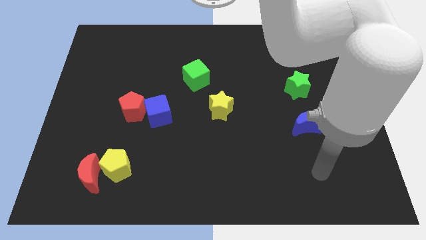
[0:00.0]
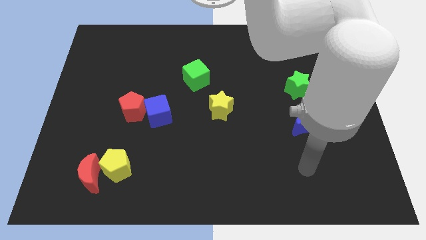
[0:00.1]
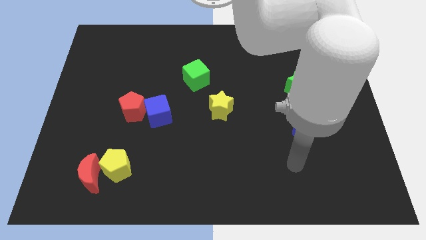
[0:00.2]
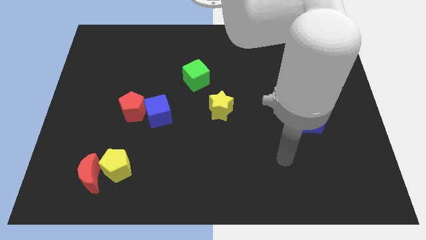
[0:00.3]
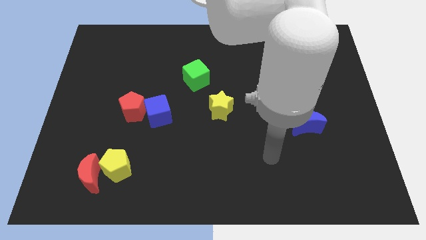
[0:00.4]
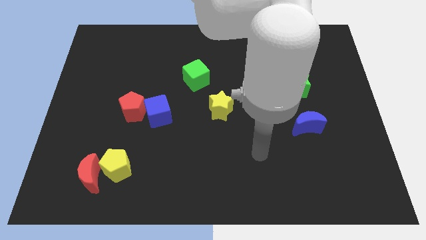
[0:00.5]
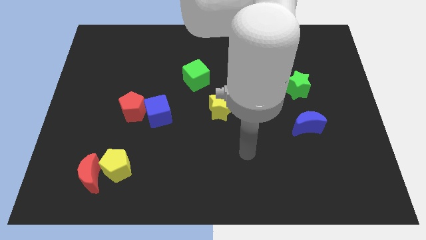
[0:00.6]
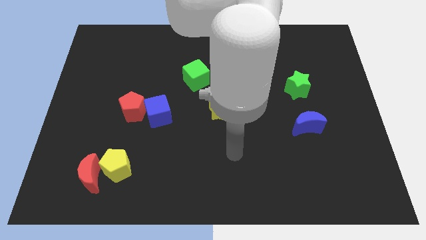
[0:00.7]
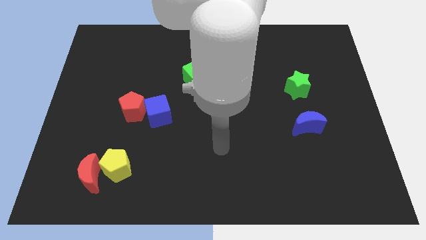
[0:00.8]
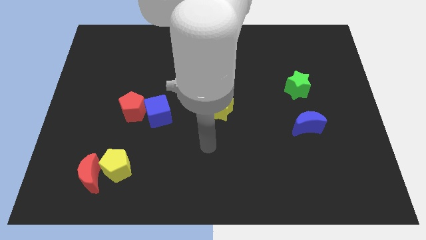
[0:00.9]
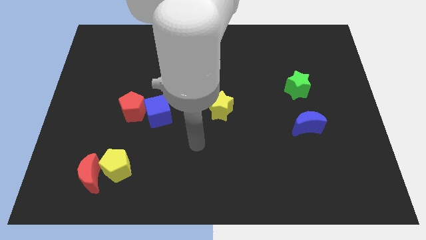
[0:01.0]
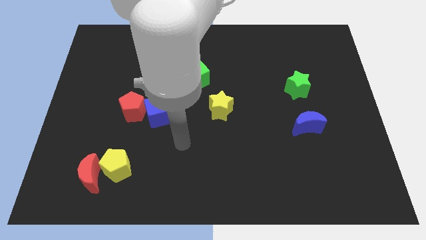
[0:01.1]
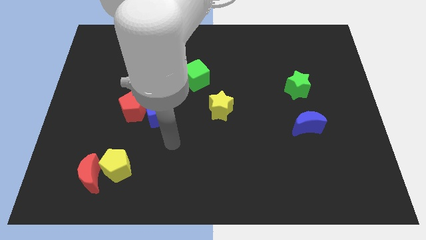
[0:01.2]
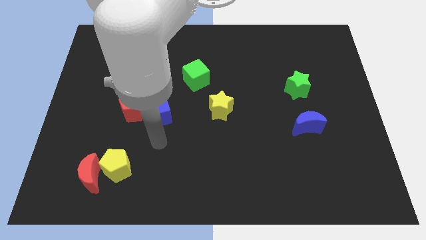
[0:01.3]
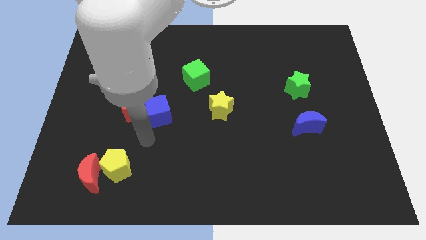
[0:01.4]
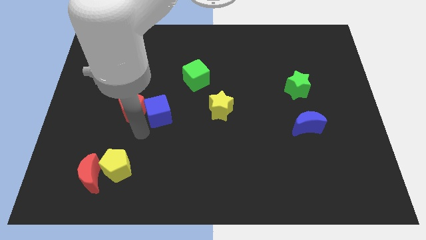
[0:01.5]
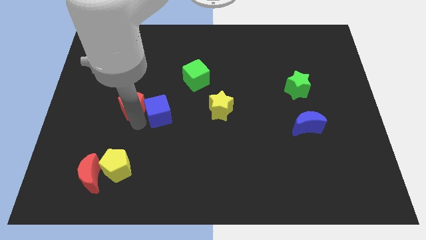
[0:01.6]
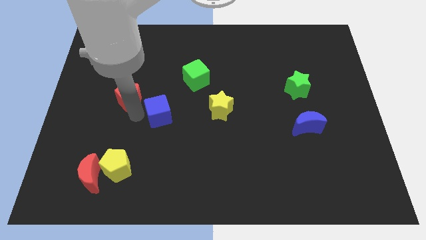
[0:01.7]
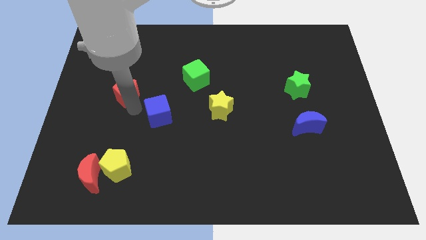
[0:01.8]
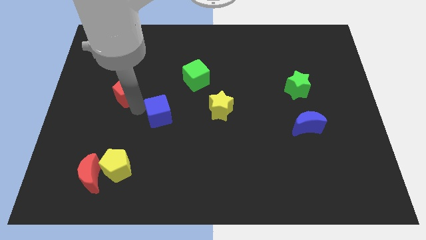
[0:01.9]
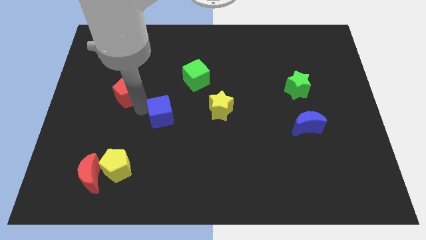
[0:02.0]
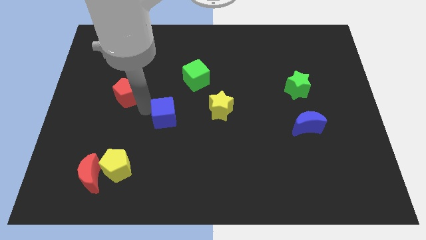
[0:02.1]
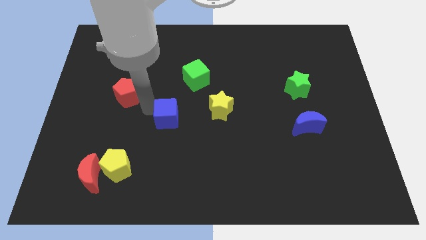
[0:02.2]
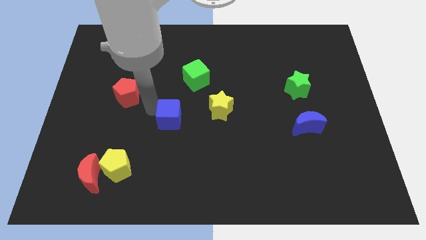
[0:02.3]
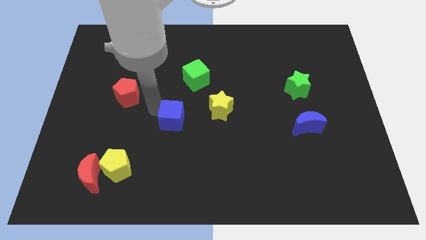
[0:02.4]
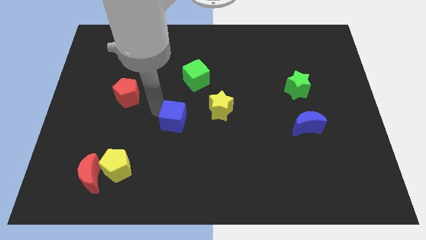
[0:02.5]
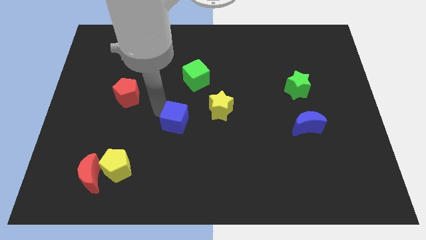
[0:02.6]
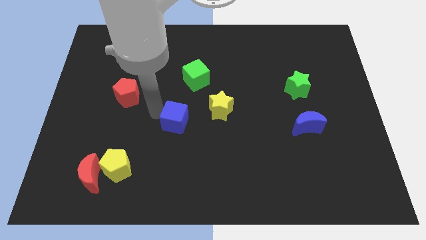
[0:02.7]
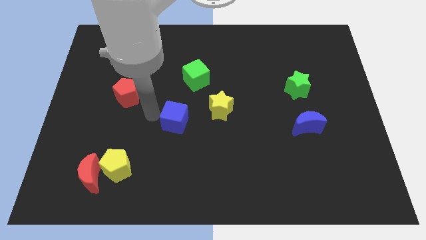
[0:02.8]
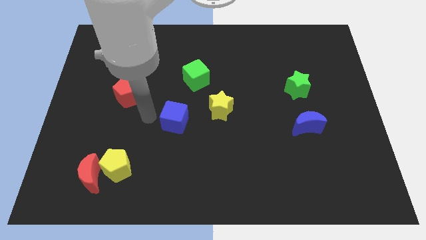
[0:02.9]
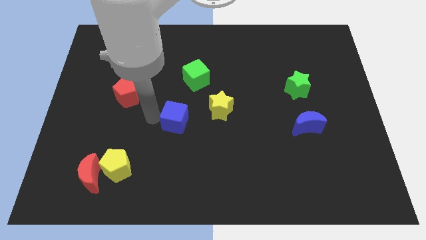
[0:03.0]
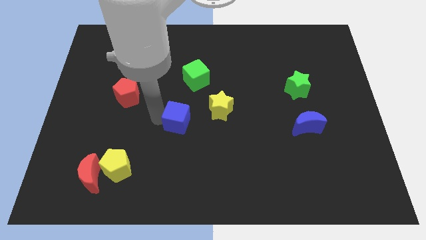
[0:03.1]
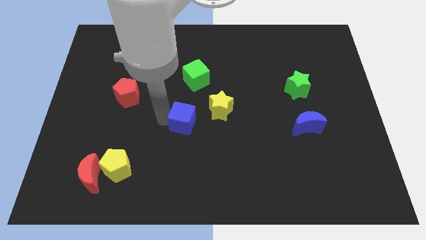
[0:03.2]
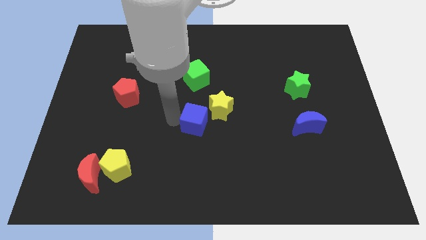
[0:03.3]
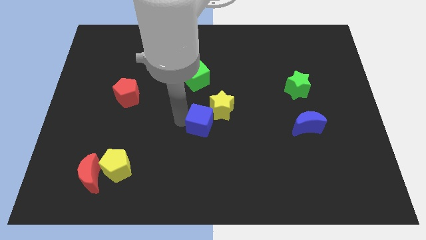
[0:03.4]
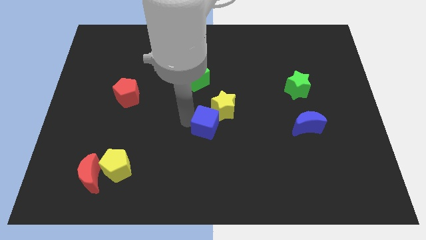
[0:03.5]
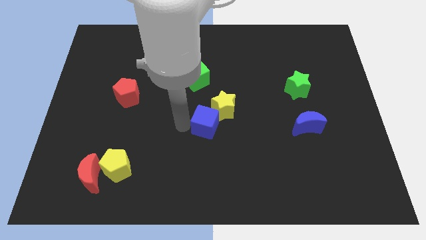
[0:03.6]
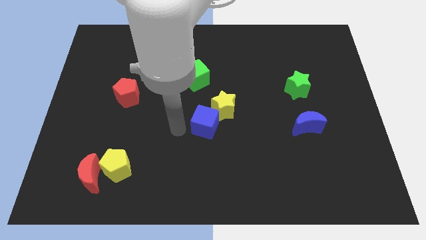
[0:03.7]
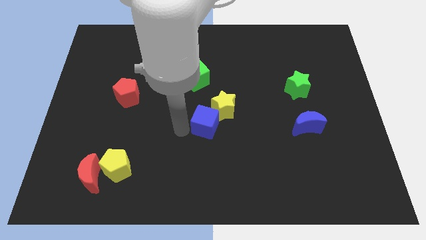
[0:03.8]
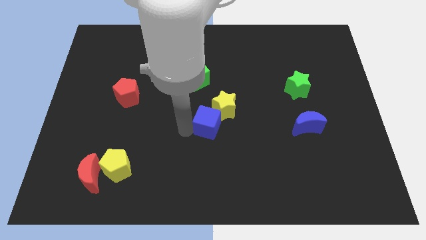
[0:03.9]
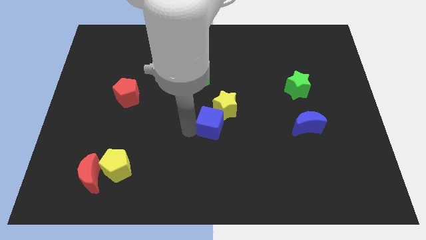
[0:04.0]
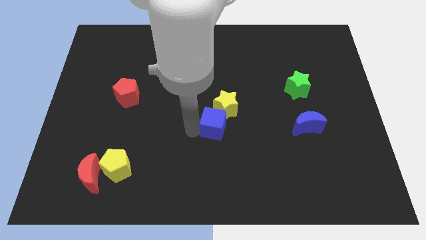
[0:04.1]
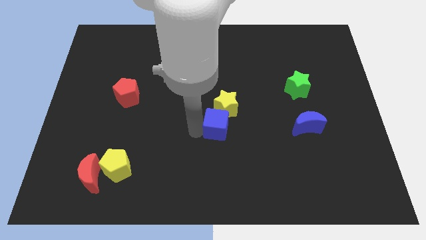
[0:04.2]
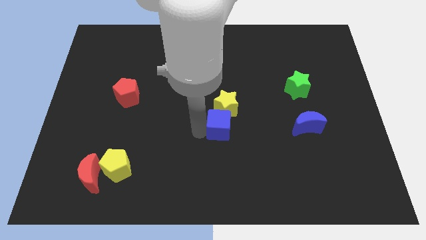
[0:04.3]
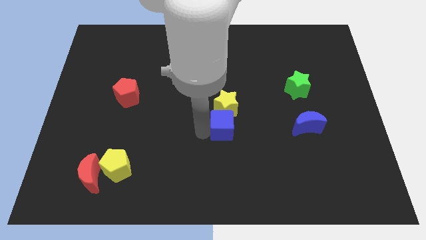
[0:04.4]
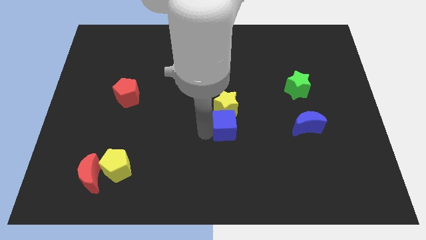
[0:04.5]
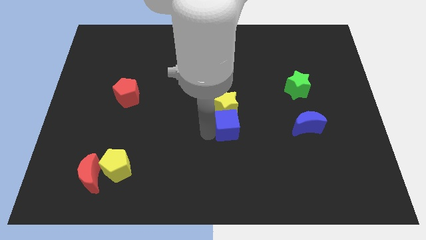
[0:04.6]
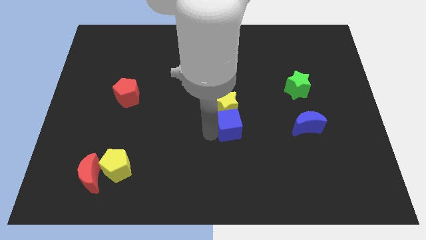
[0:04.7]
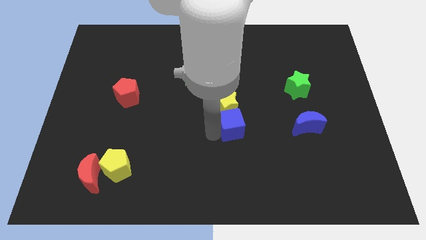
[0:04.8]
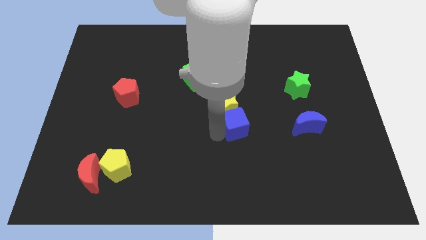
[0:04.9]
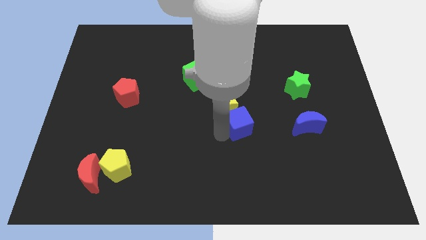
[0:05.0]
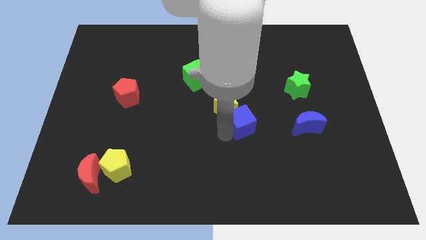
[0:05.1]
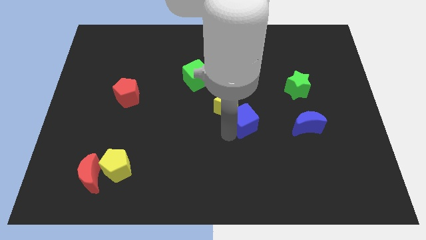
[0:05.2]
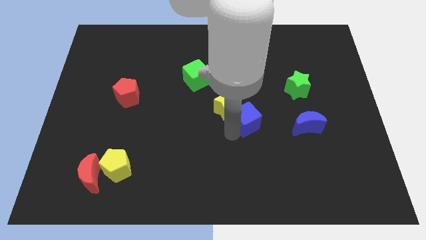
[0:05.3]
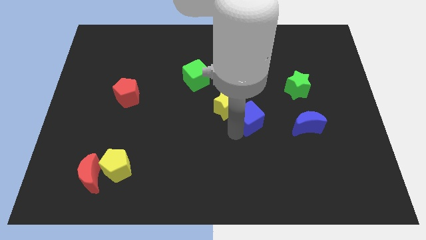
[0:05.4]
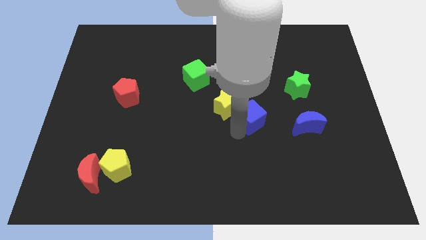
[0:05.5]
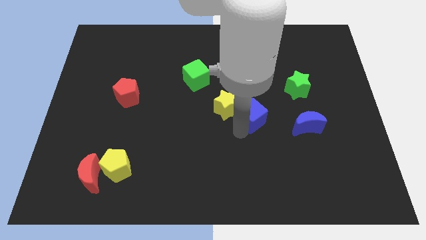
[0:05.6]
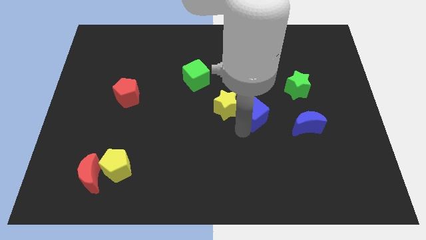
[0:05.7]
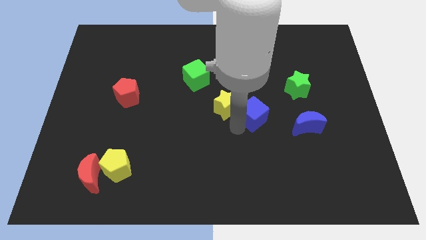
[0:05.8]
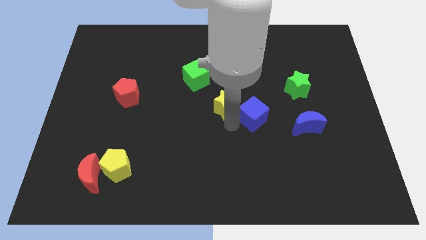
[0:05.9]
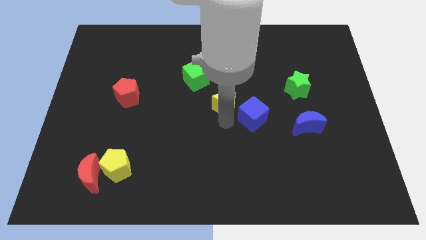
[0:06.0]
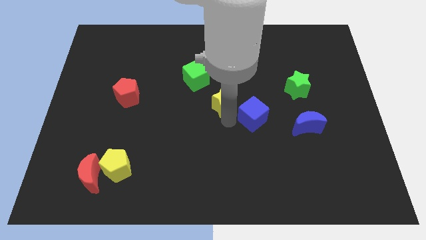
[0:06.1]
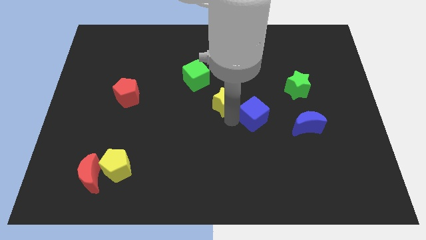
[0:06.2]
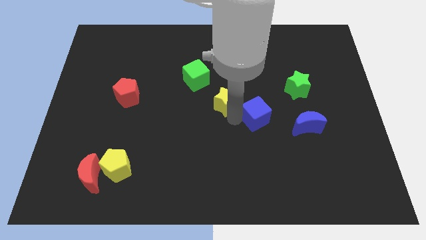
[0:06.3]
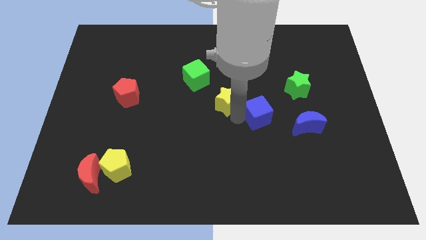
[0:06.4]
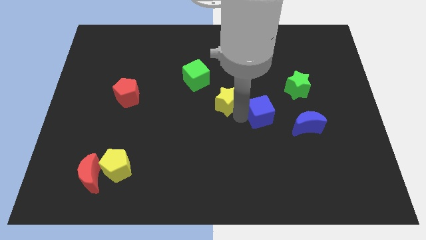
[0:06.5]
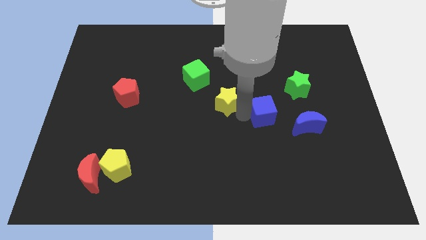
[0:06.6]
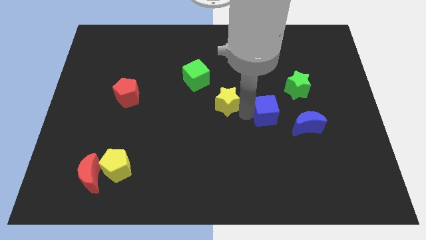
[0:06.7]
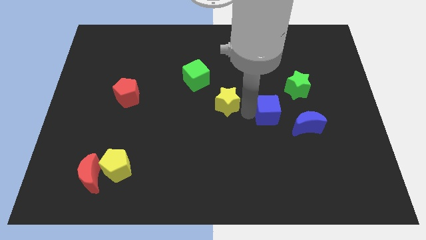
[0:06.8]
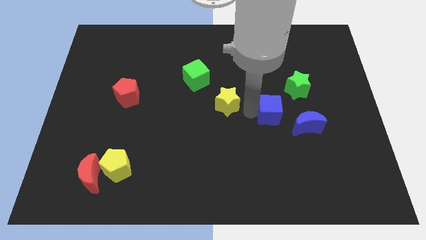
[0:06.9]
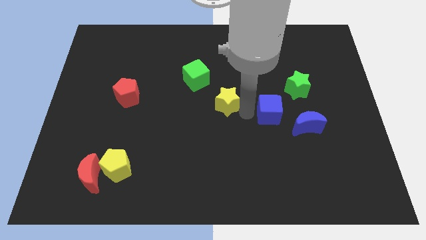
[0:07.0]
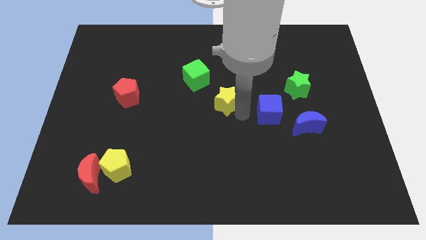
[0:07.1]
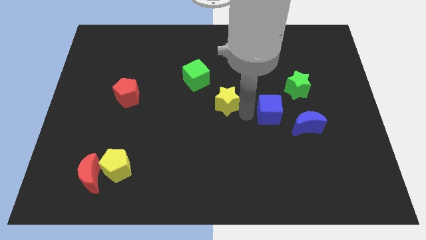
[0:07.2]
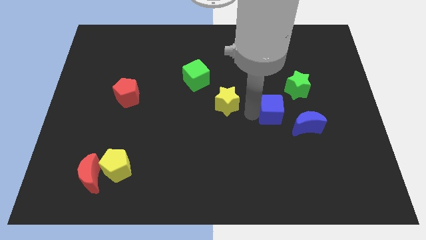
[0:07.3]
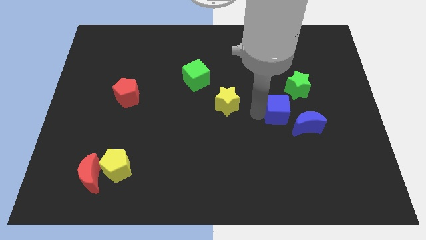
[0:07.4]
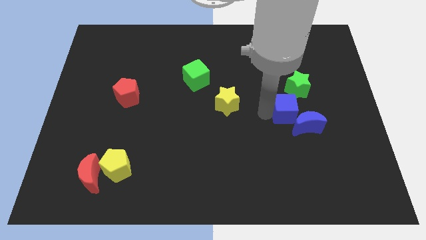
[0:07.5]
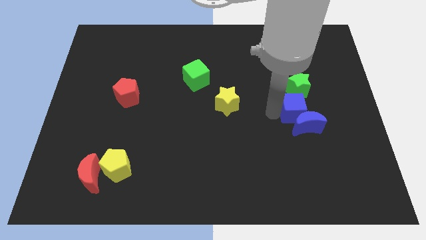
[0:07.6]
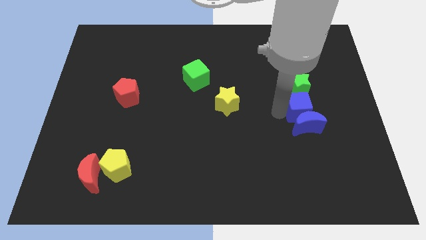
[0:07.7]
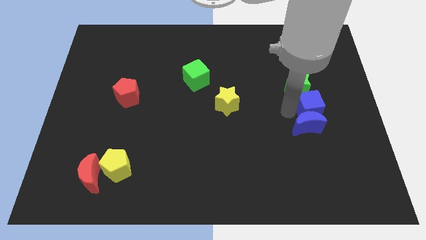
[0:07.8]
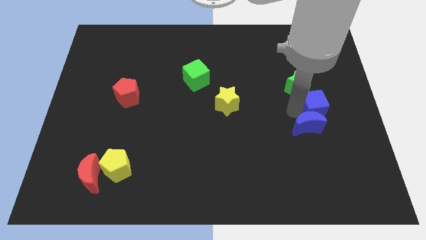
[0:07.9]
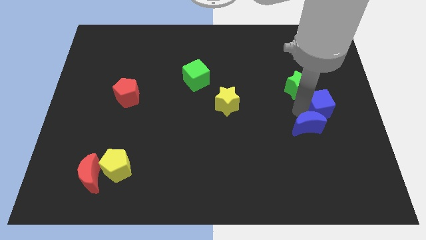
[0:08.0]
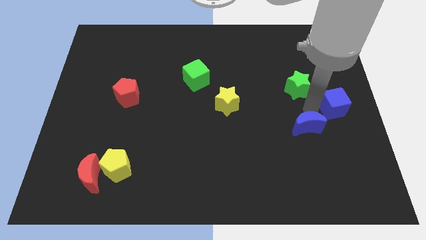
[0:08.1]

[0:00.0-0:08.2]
move the blue cube to the center right
